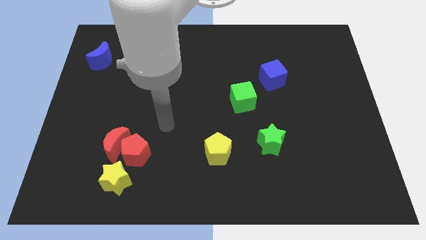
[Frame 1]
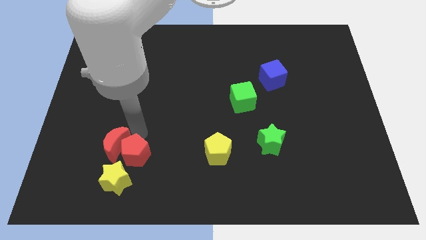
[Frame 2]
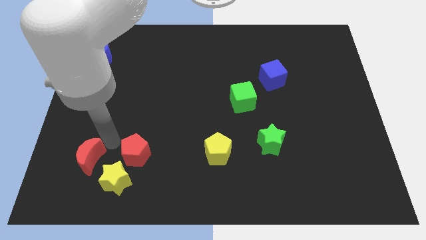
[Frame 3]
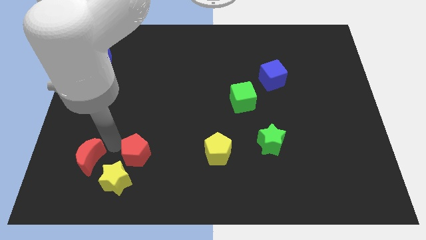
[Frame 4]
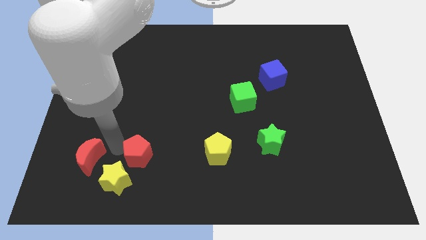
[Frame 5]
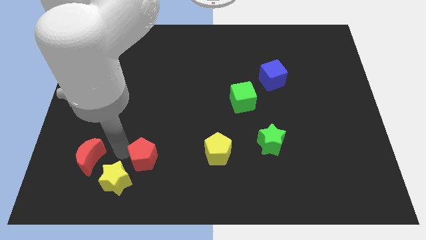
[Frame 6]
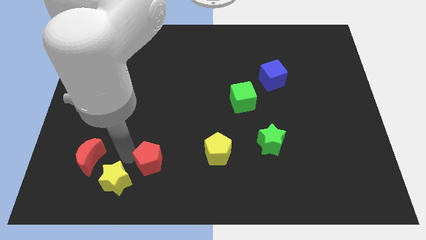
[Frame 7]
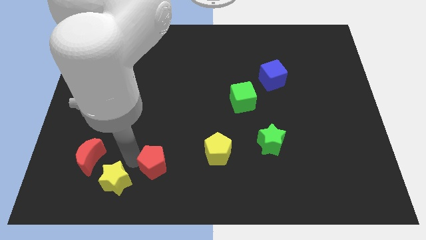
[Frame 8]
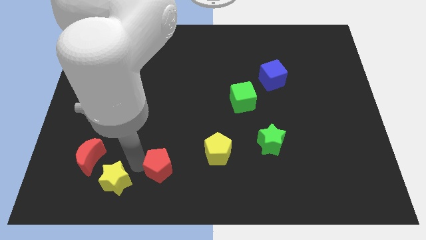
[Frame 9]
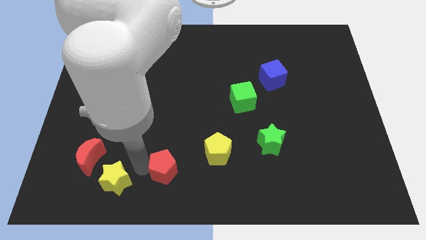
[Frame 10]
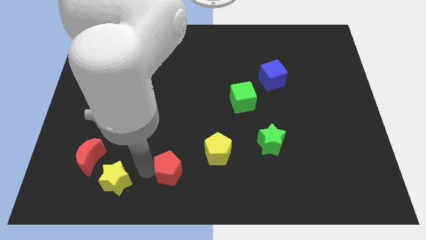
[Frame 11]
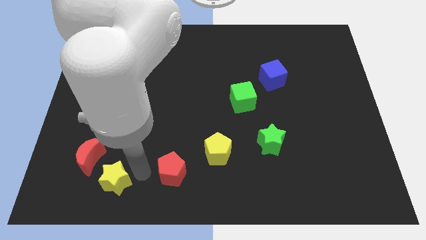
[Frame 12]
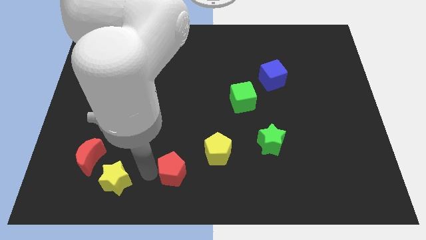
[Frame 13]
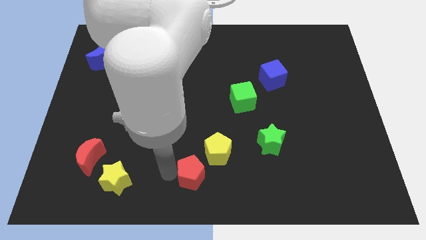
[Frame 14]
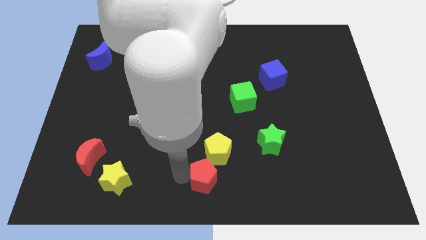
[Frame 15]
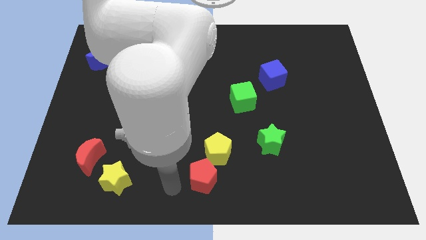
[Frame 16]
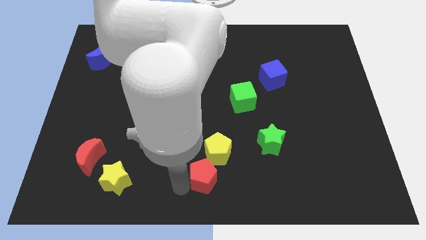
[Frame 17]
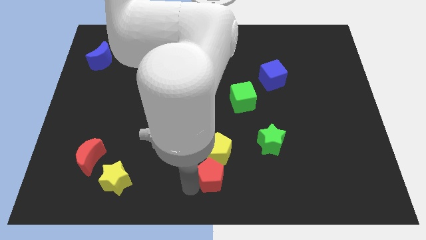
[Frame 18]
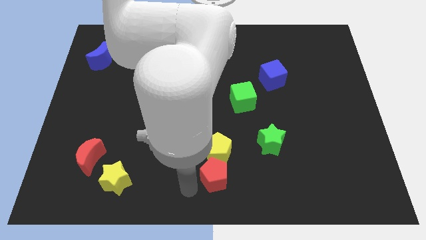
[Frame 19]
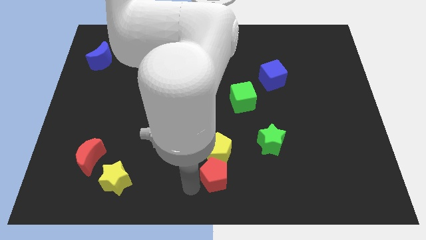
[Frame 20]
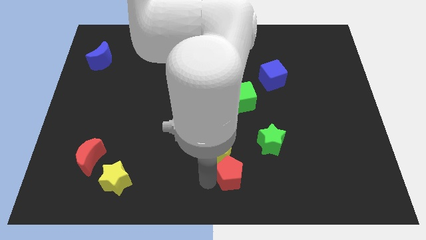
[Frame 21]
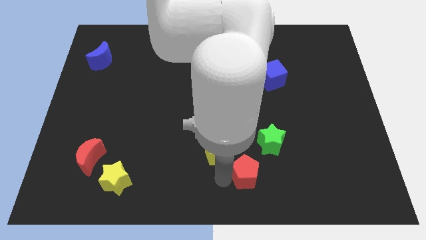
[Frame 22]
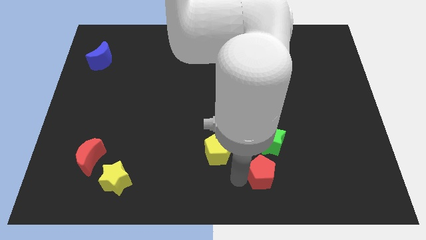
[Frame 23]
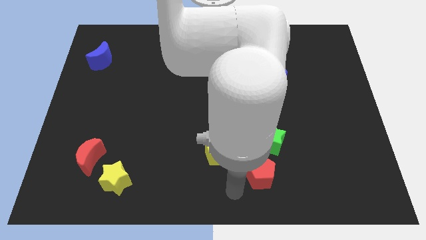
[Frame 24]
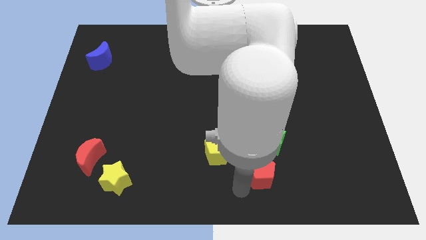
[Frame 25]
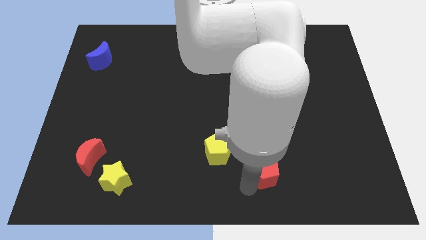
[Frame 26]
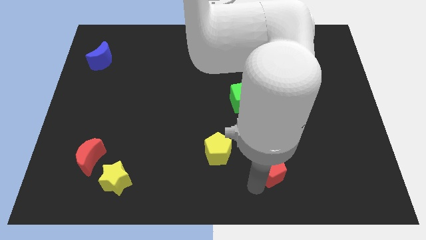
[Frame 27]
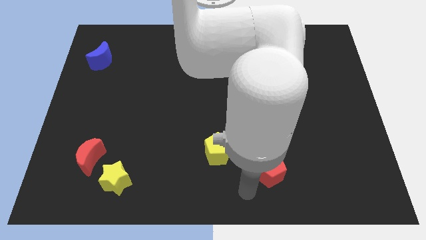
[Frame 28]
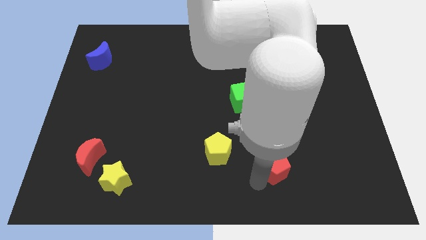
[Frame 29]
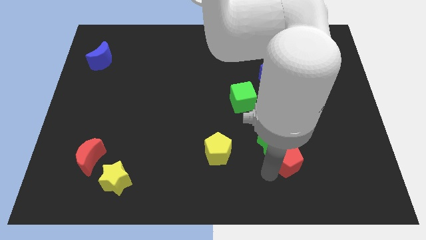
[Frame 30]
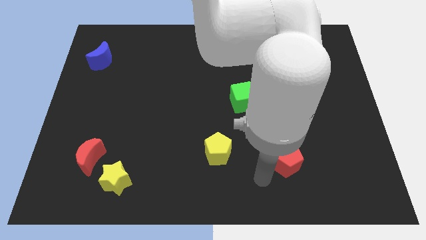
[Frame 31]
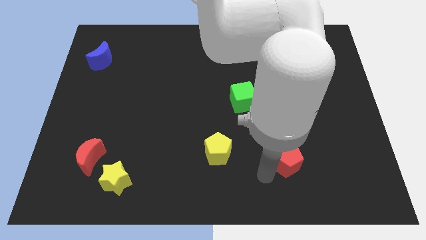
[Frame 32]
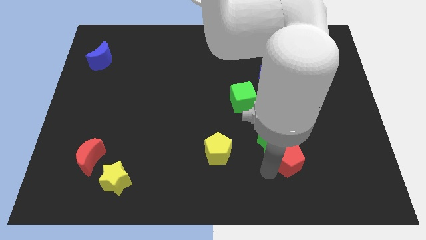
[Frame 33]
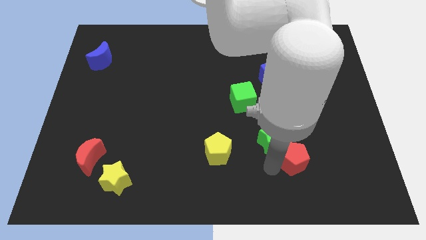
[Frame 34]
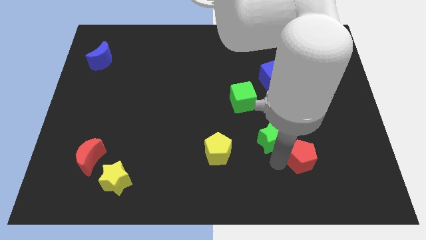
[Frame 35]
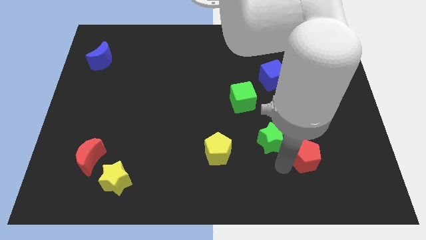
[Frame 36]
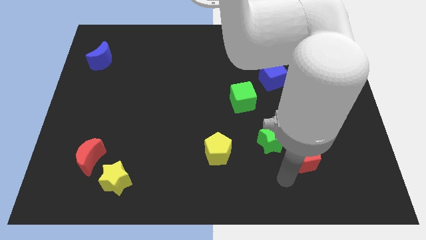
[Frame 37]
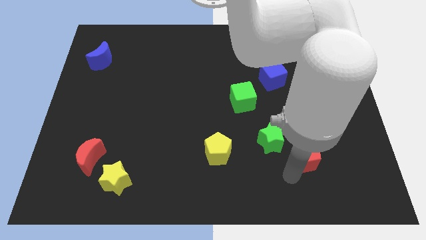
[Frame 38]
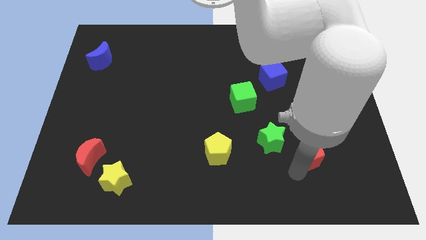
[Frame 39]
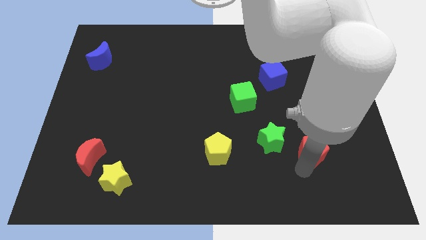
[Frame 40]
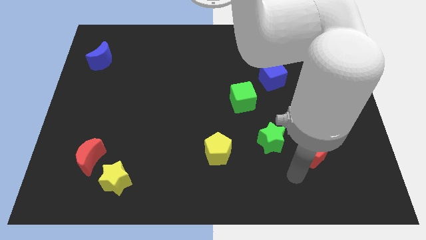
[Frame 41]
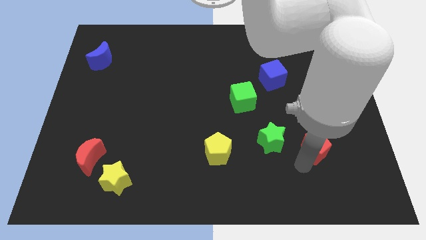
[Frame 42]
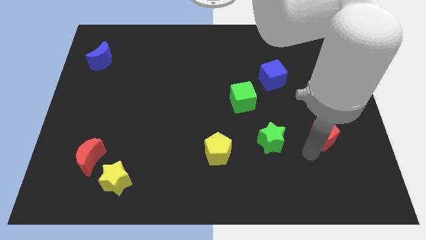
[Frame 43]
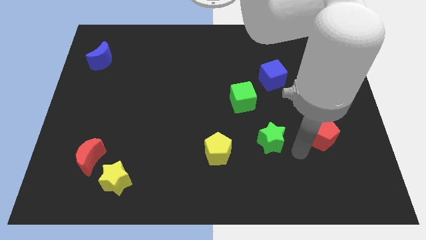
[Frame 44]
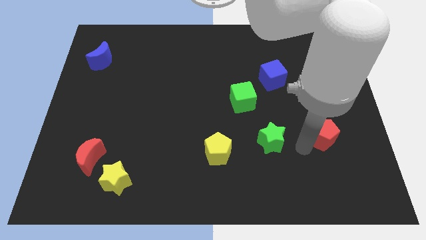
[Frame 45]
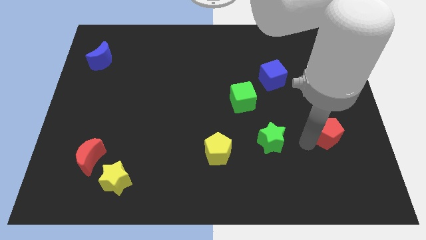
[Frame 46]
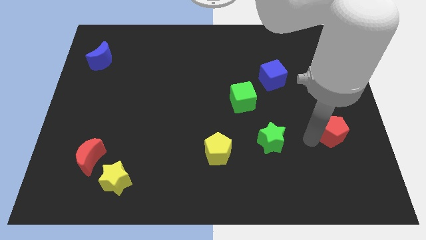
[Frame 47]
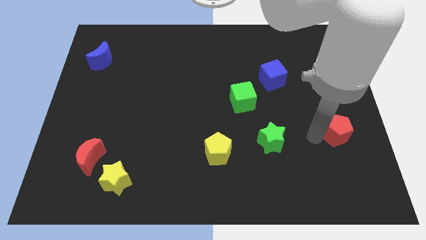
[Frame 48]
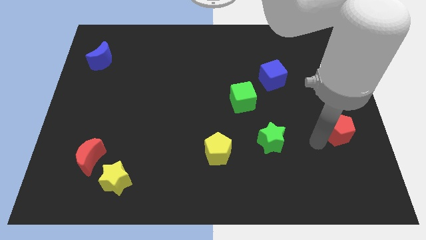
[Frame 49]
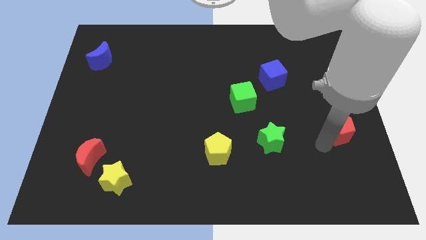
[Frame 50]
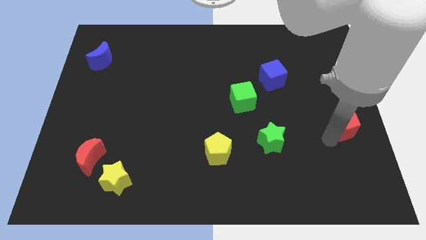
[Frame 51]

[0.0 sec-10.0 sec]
move the red pentagon to the center right

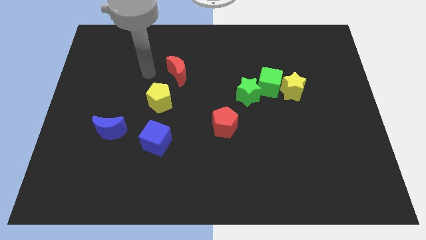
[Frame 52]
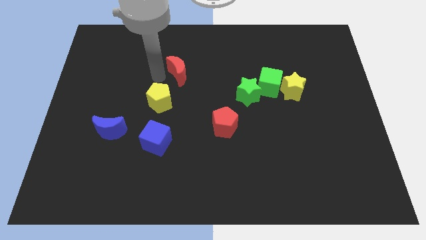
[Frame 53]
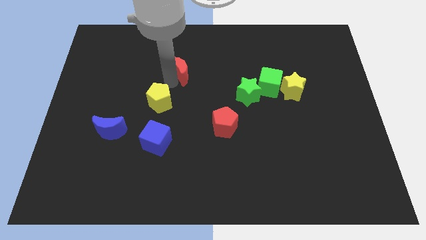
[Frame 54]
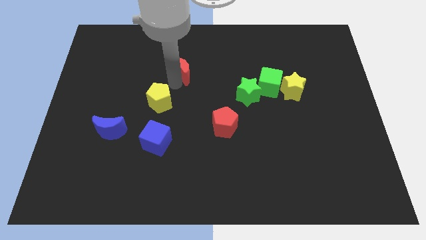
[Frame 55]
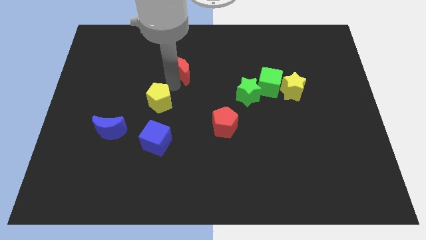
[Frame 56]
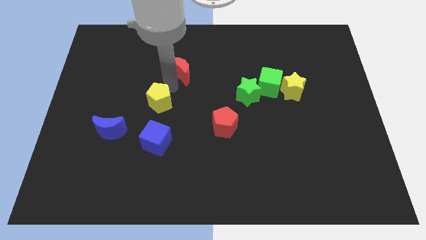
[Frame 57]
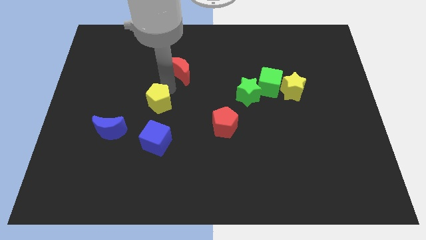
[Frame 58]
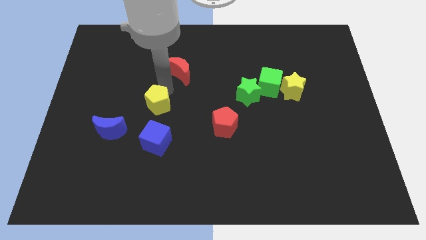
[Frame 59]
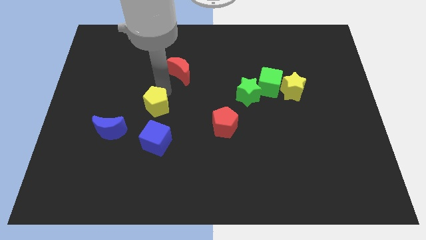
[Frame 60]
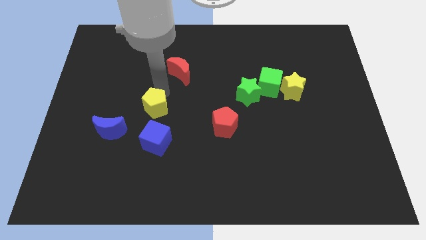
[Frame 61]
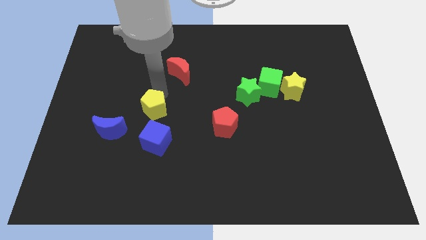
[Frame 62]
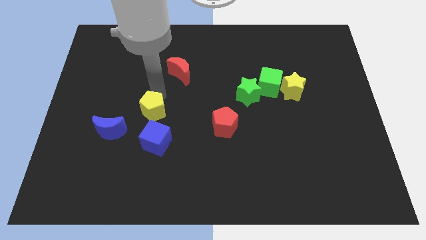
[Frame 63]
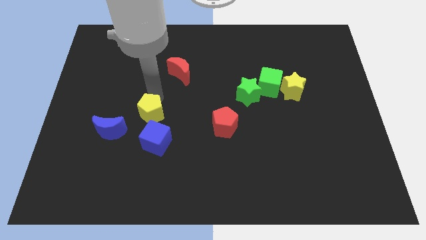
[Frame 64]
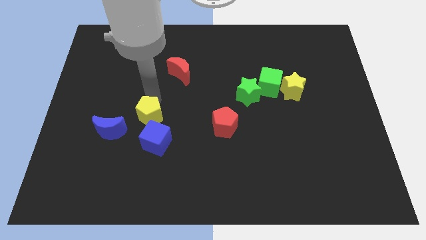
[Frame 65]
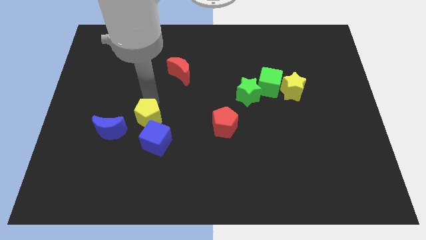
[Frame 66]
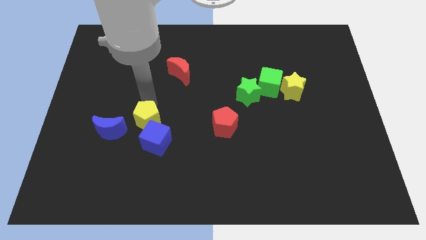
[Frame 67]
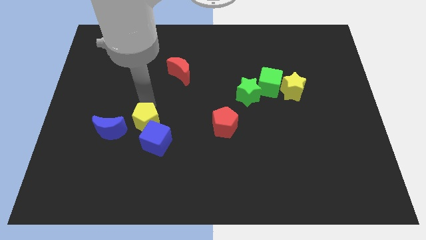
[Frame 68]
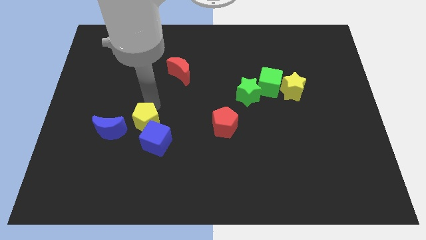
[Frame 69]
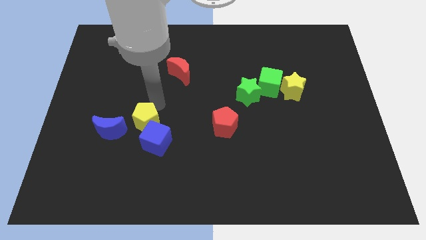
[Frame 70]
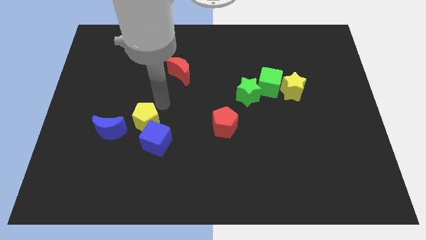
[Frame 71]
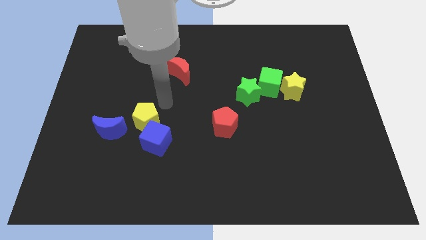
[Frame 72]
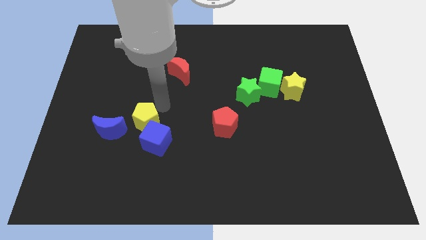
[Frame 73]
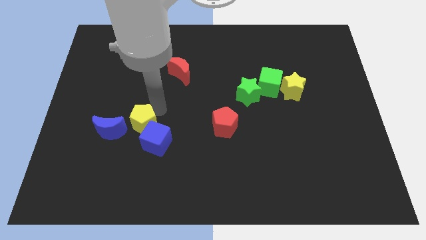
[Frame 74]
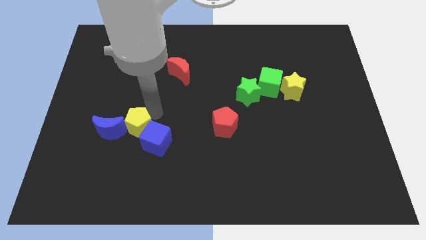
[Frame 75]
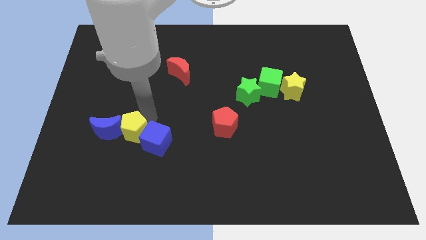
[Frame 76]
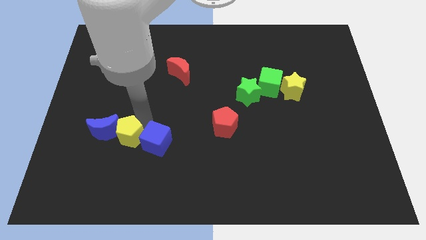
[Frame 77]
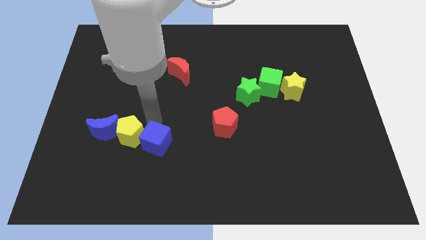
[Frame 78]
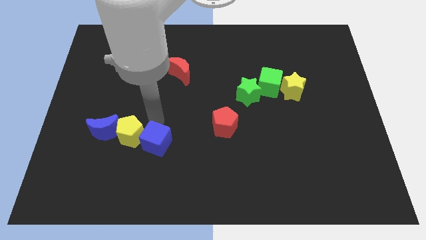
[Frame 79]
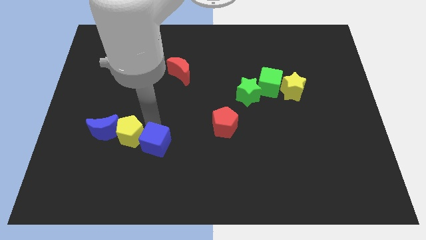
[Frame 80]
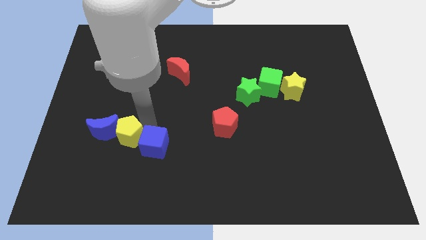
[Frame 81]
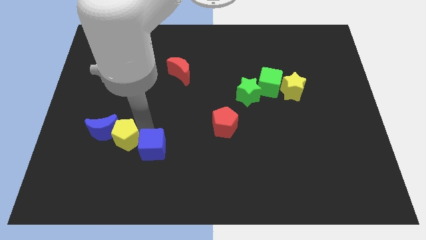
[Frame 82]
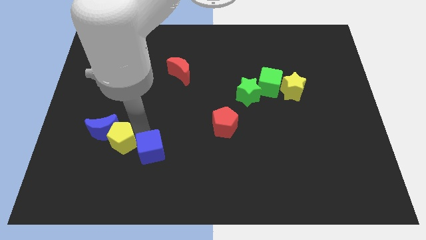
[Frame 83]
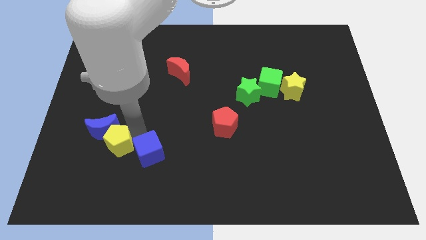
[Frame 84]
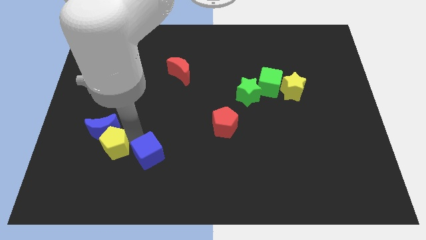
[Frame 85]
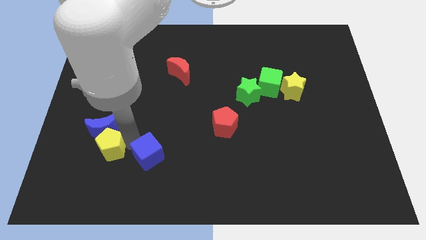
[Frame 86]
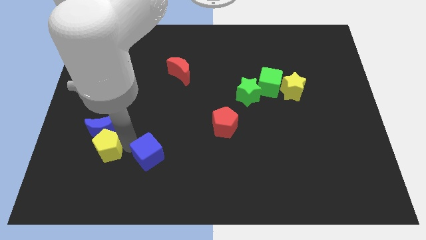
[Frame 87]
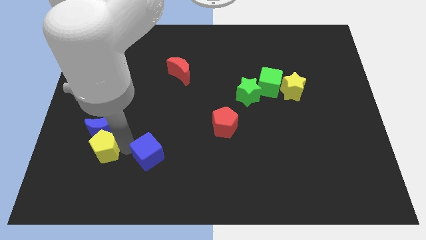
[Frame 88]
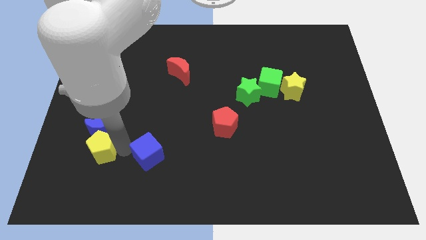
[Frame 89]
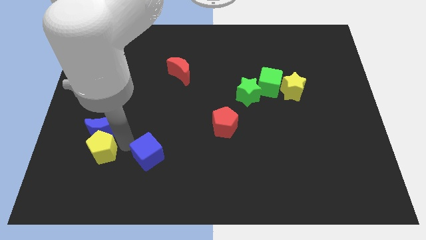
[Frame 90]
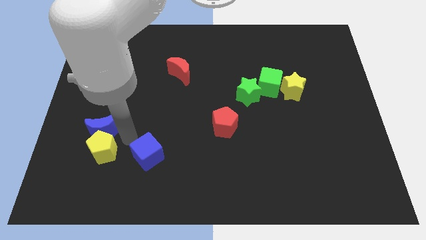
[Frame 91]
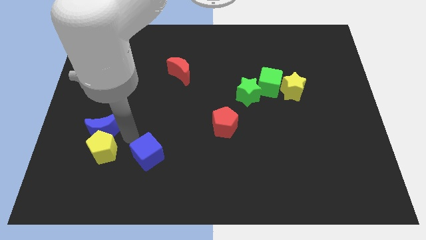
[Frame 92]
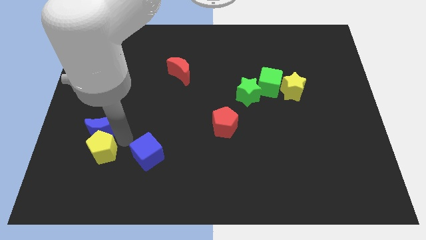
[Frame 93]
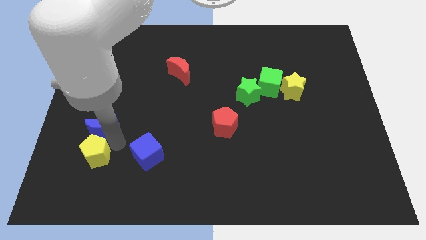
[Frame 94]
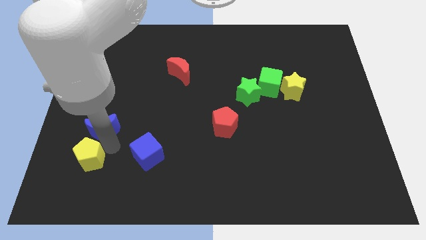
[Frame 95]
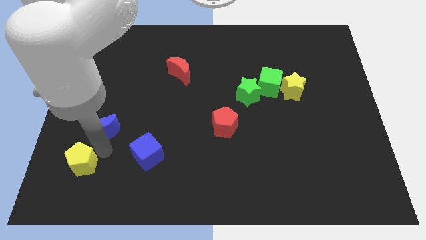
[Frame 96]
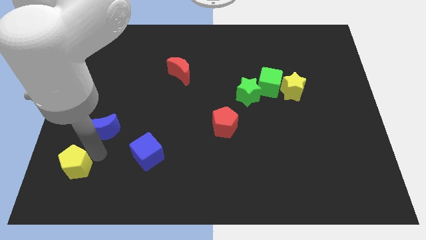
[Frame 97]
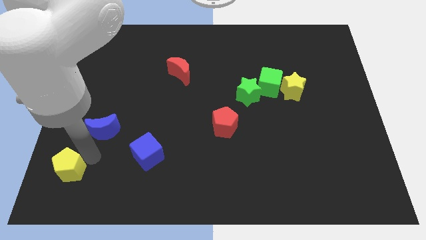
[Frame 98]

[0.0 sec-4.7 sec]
move the yellow pentagon to the lower left corner
